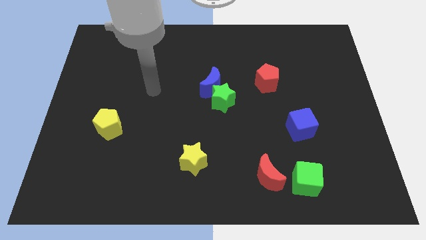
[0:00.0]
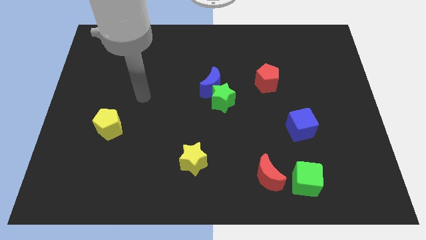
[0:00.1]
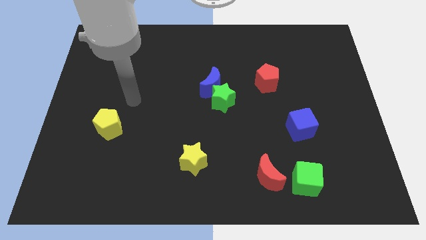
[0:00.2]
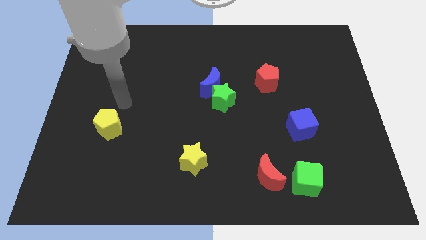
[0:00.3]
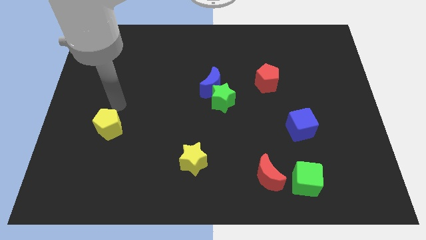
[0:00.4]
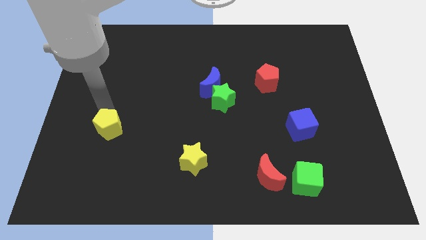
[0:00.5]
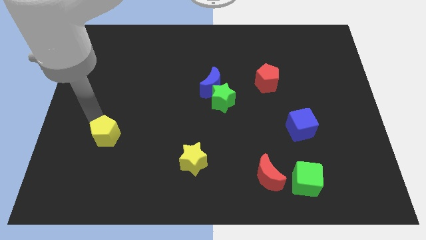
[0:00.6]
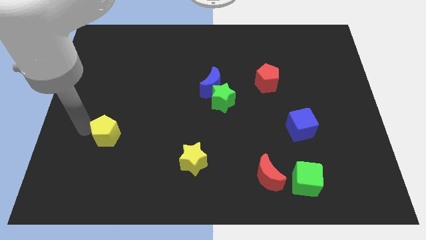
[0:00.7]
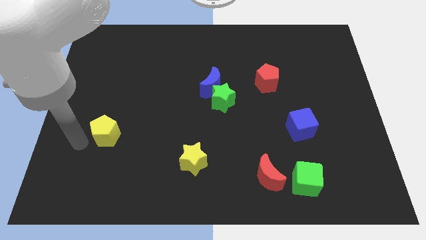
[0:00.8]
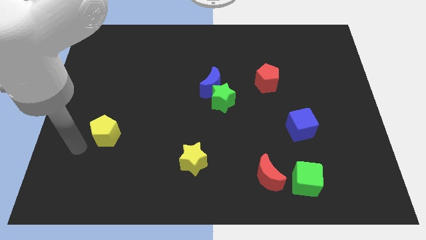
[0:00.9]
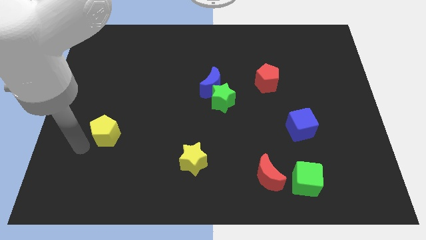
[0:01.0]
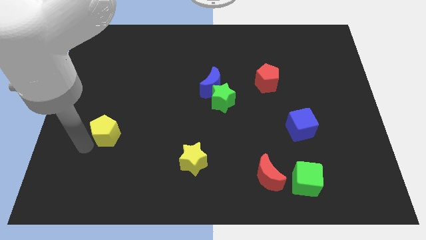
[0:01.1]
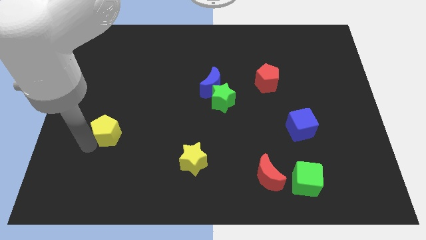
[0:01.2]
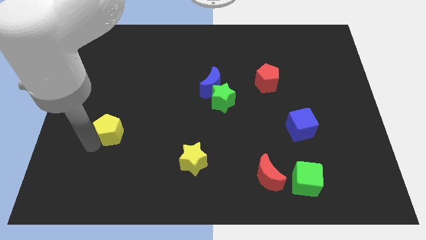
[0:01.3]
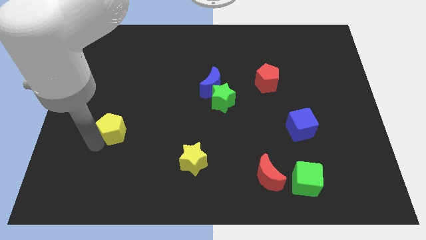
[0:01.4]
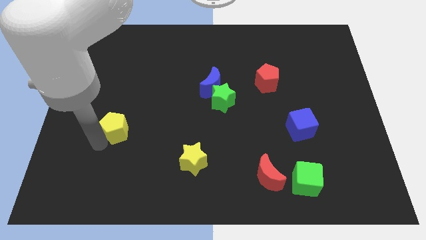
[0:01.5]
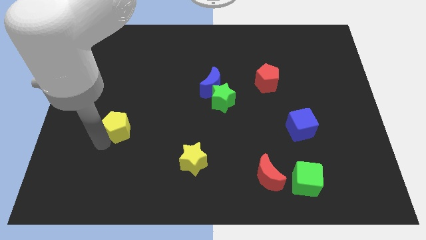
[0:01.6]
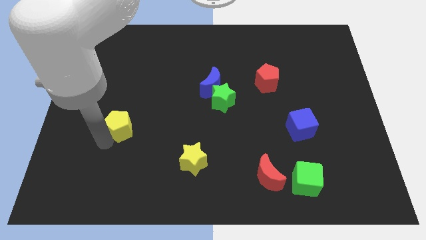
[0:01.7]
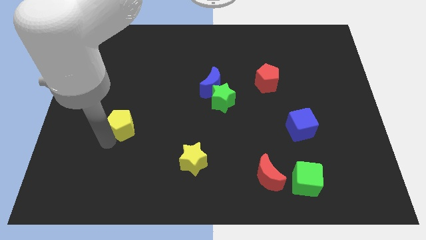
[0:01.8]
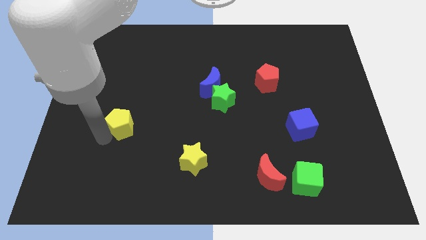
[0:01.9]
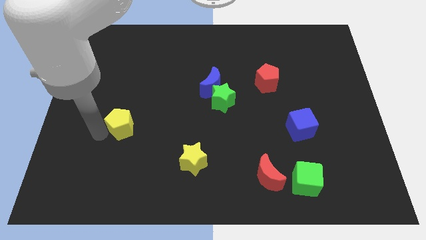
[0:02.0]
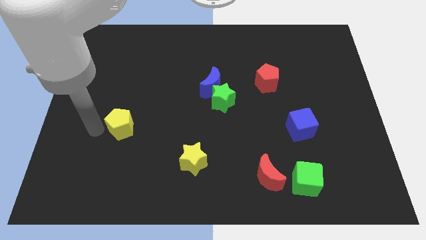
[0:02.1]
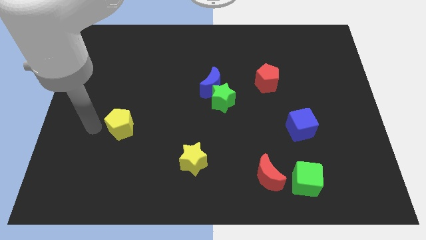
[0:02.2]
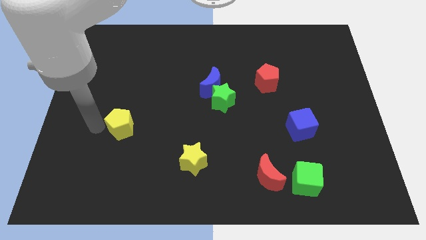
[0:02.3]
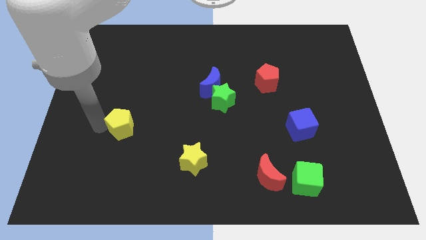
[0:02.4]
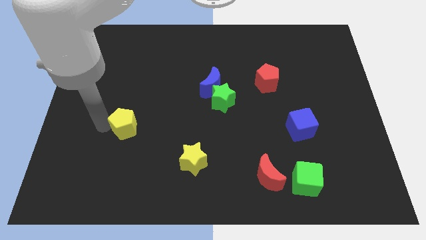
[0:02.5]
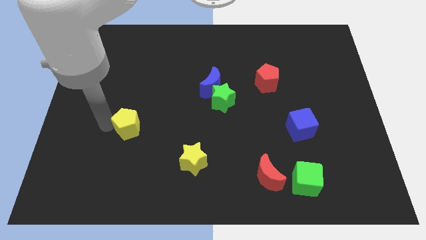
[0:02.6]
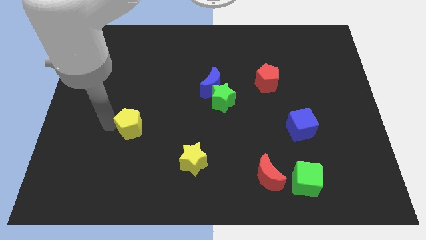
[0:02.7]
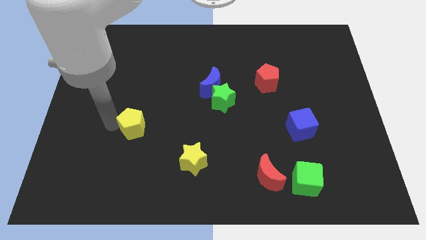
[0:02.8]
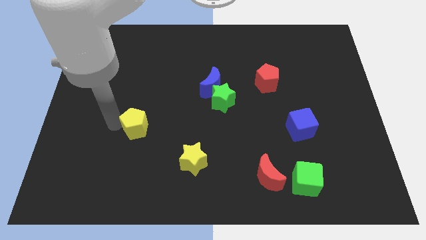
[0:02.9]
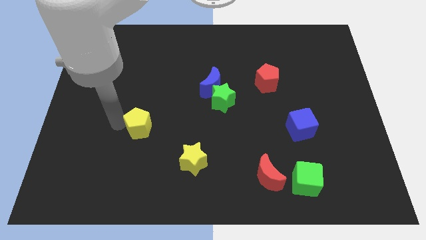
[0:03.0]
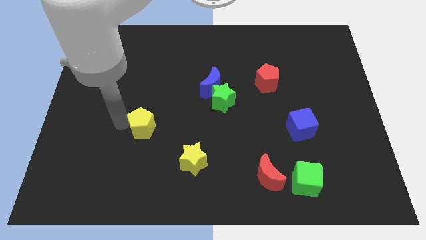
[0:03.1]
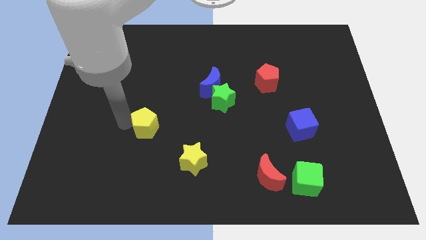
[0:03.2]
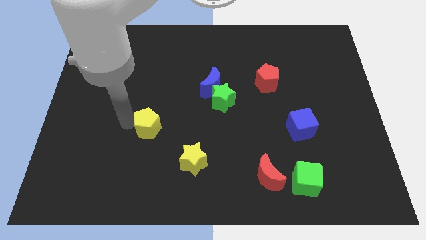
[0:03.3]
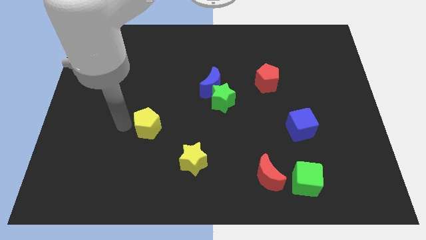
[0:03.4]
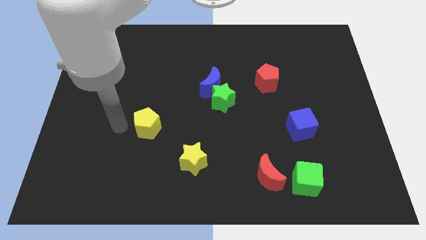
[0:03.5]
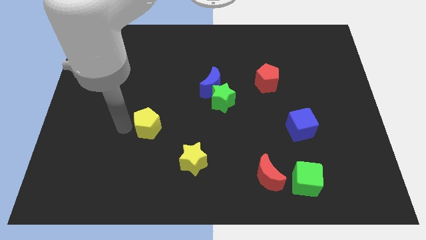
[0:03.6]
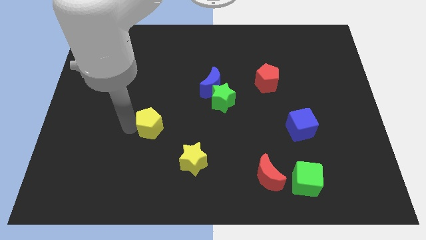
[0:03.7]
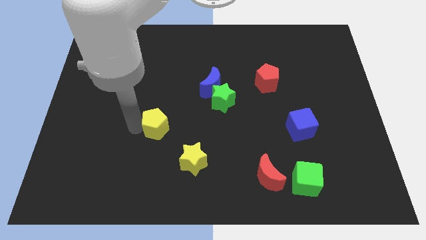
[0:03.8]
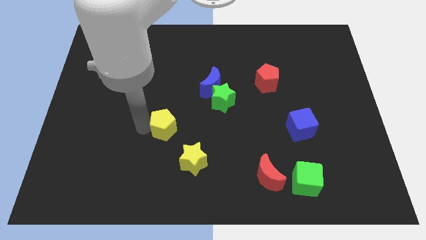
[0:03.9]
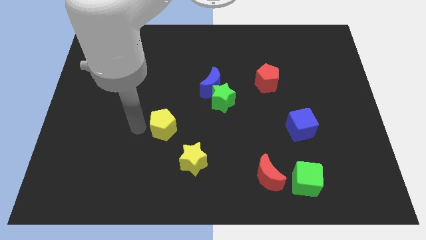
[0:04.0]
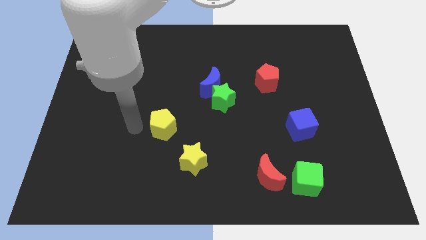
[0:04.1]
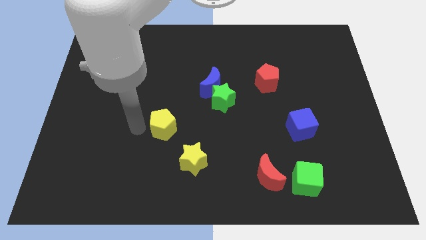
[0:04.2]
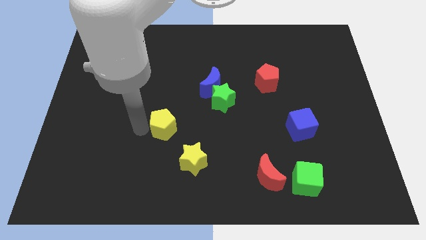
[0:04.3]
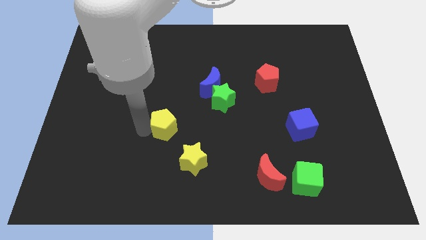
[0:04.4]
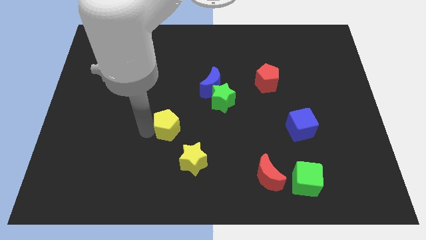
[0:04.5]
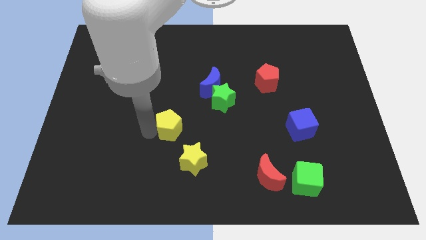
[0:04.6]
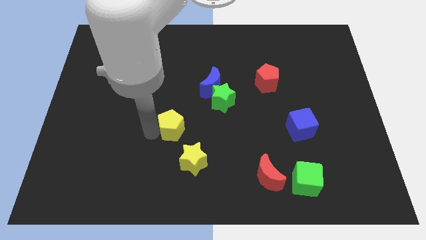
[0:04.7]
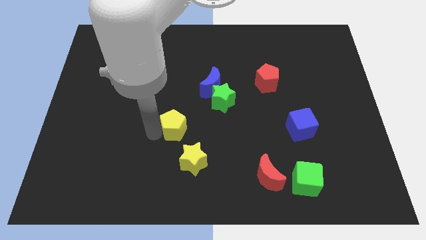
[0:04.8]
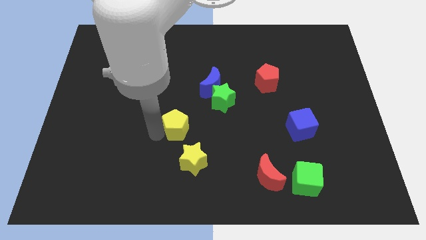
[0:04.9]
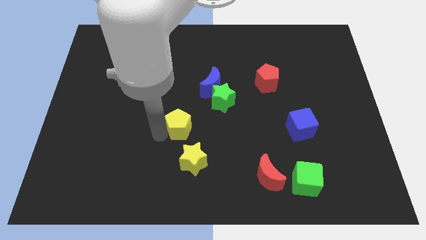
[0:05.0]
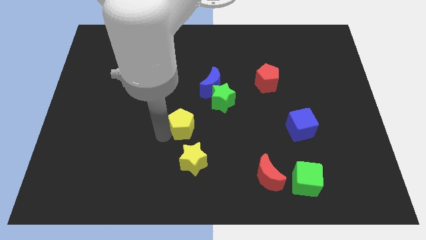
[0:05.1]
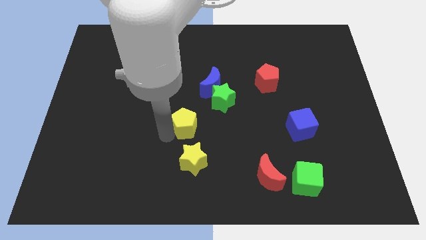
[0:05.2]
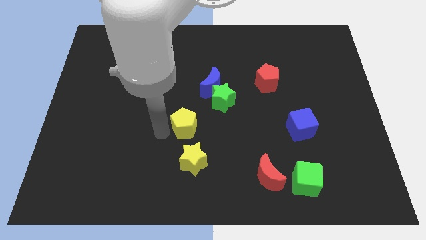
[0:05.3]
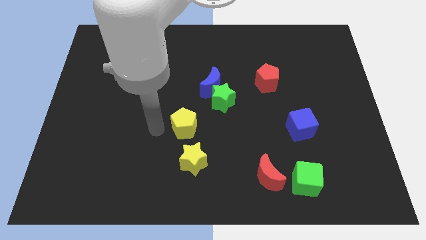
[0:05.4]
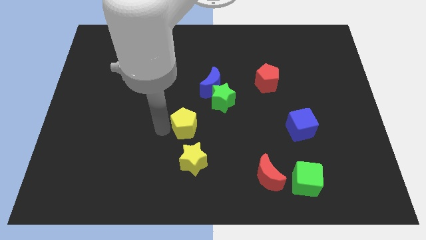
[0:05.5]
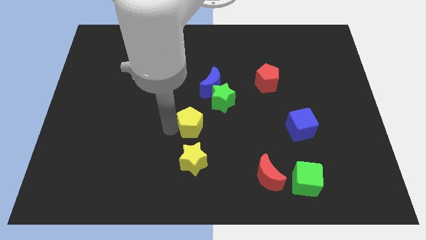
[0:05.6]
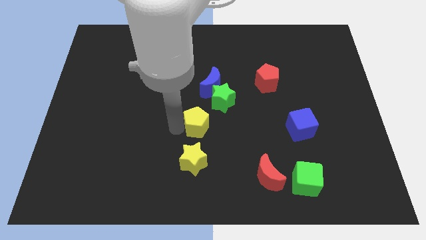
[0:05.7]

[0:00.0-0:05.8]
push the yellow pentagon right

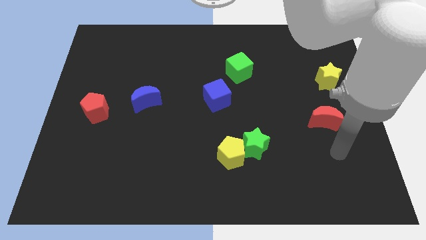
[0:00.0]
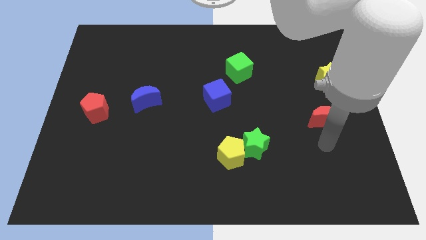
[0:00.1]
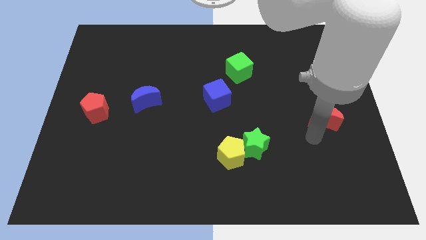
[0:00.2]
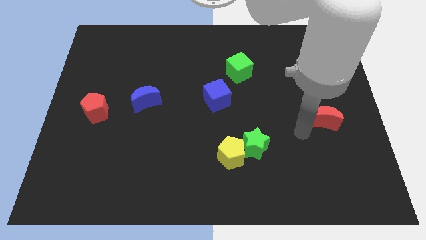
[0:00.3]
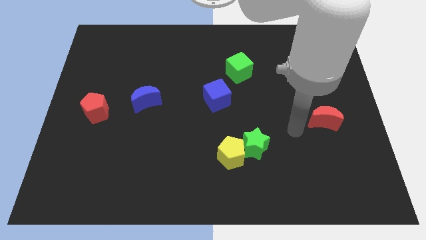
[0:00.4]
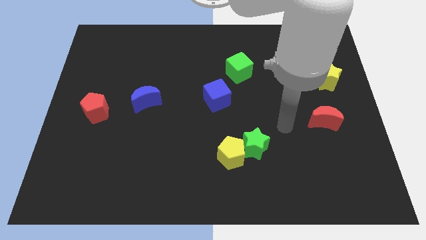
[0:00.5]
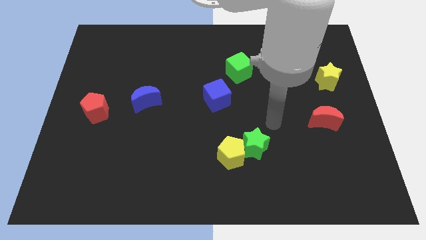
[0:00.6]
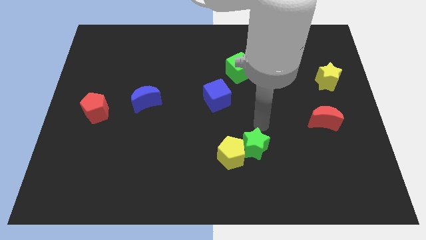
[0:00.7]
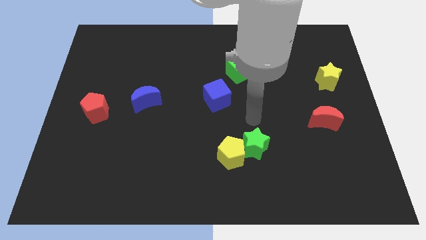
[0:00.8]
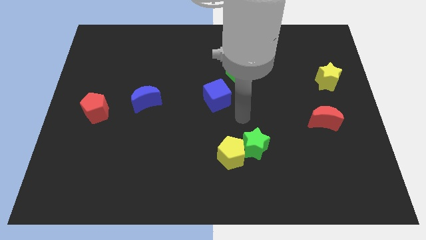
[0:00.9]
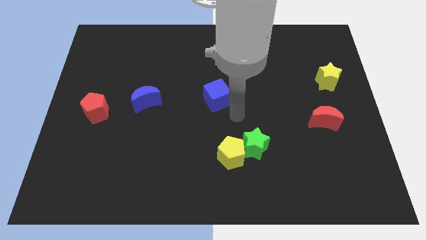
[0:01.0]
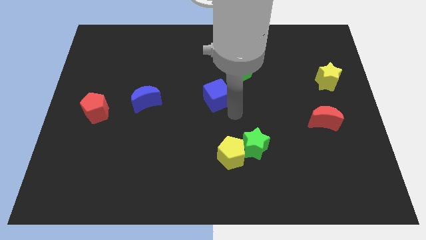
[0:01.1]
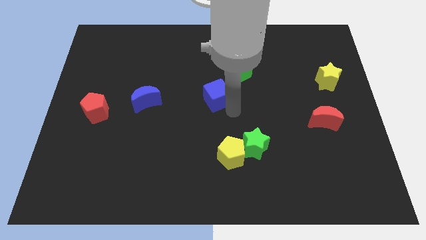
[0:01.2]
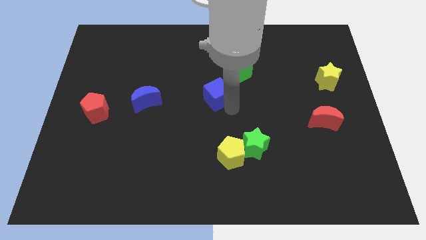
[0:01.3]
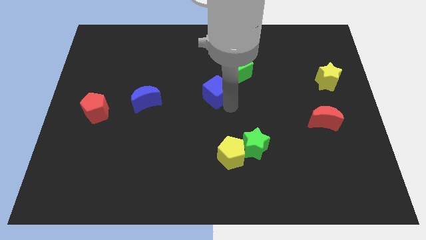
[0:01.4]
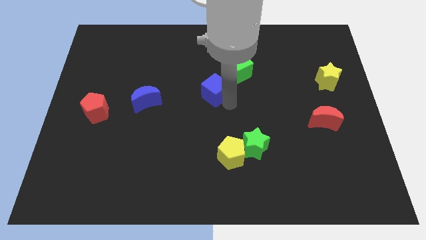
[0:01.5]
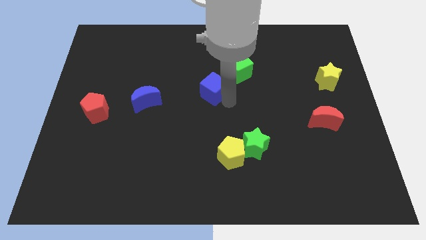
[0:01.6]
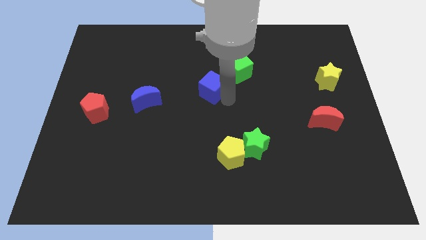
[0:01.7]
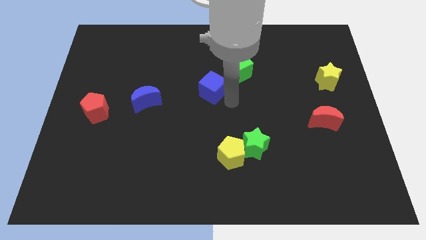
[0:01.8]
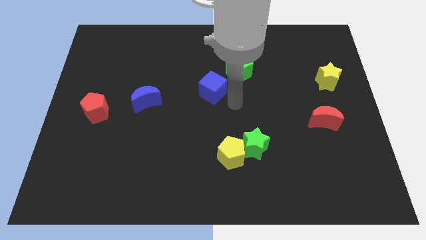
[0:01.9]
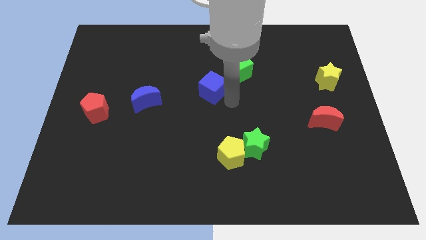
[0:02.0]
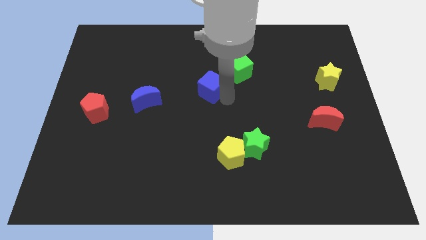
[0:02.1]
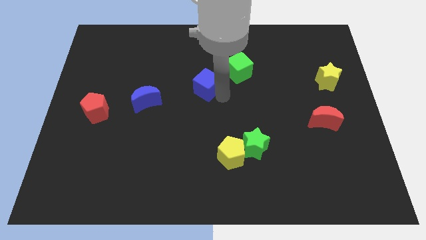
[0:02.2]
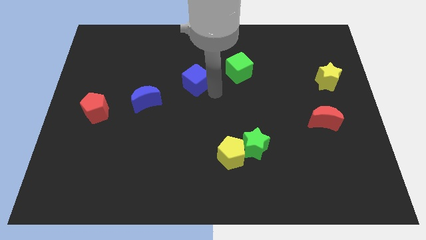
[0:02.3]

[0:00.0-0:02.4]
move the blue cube up and to the left diagonally a bit
